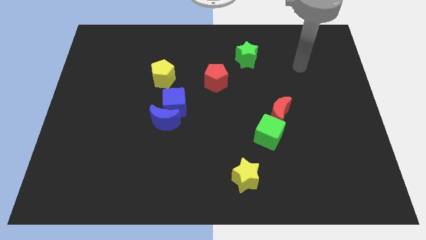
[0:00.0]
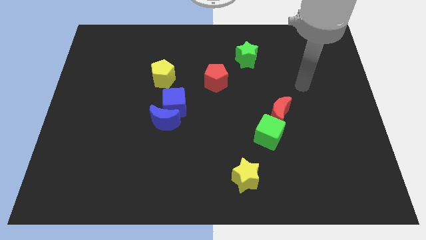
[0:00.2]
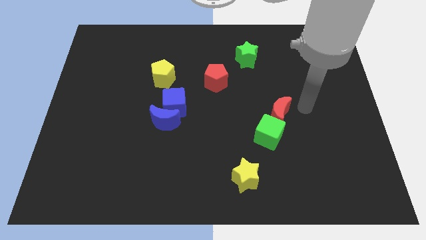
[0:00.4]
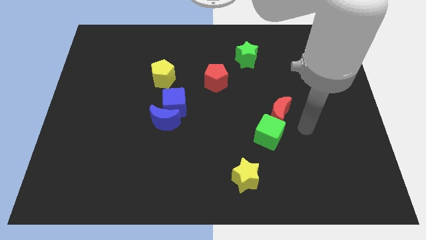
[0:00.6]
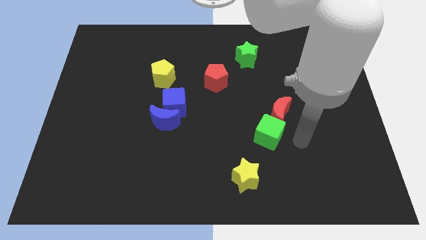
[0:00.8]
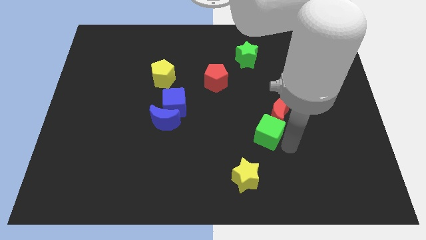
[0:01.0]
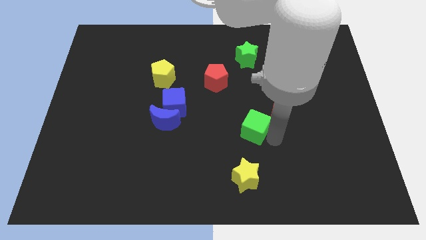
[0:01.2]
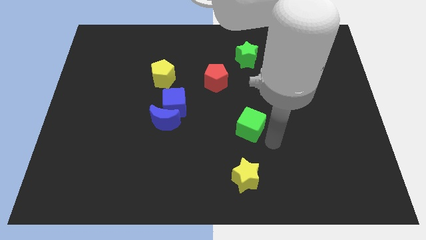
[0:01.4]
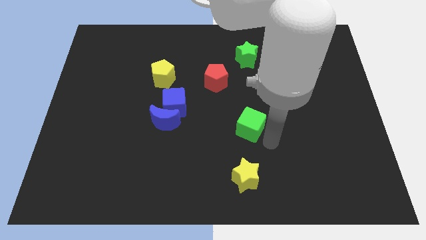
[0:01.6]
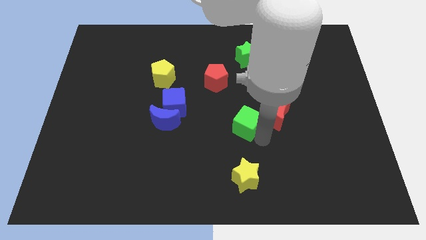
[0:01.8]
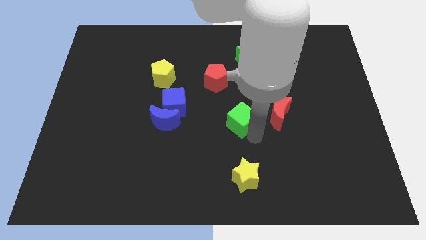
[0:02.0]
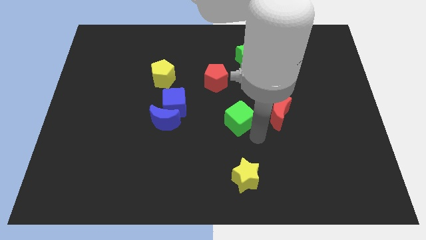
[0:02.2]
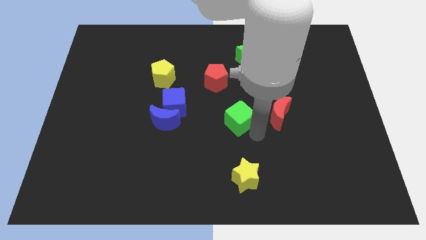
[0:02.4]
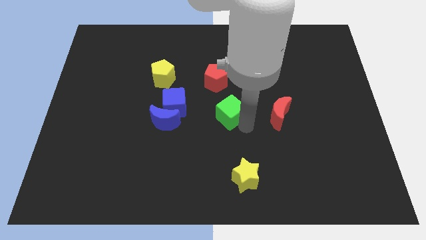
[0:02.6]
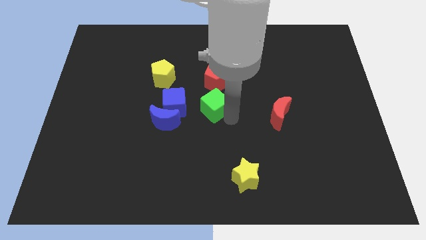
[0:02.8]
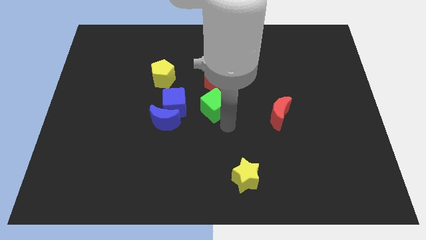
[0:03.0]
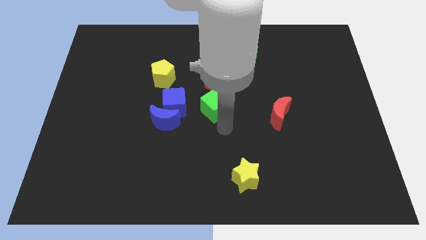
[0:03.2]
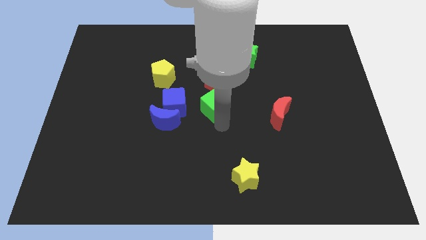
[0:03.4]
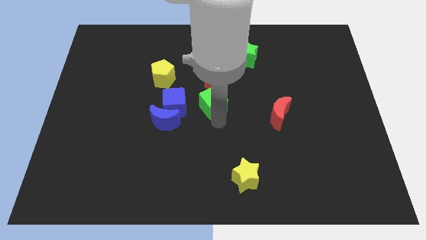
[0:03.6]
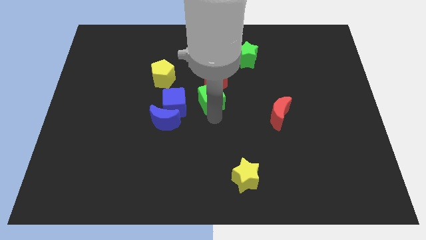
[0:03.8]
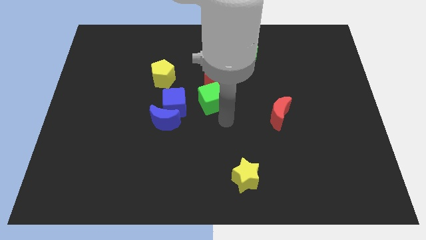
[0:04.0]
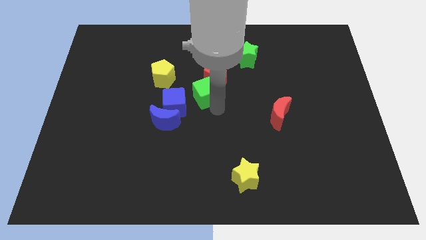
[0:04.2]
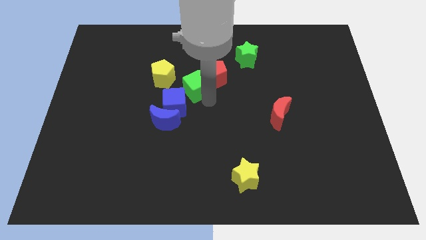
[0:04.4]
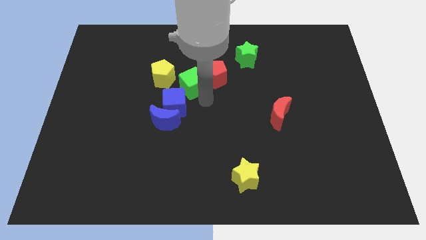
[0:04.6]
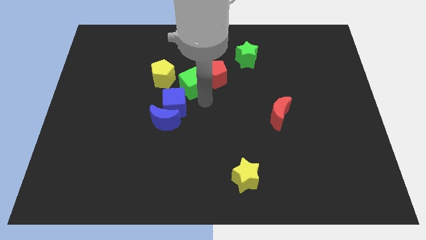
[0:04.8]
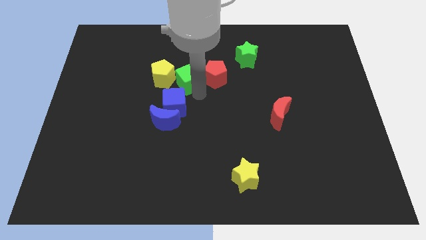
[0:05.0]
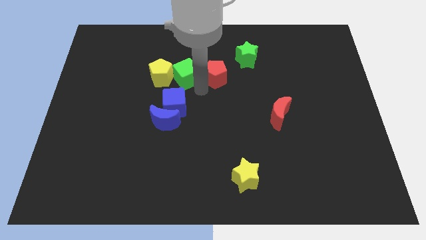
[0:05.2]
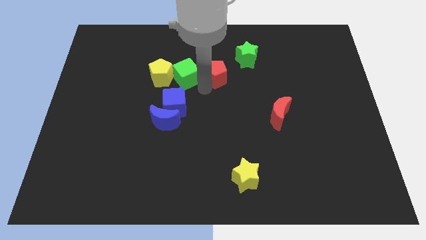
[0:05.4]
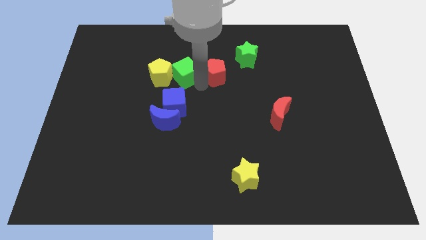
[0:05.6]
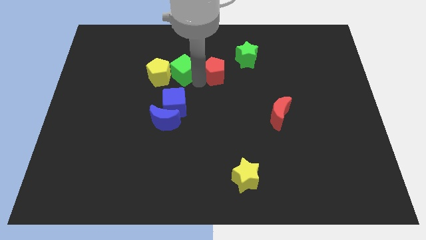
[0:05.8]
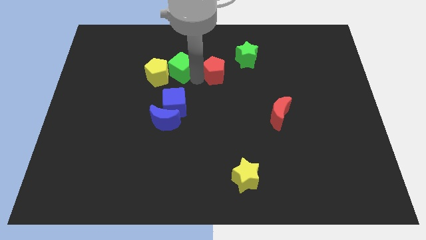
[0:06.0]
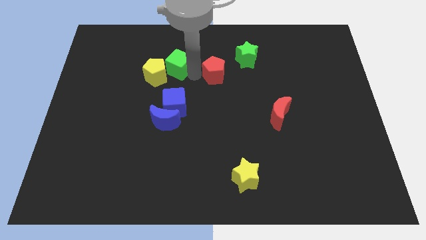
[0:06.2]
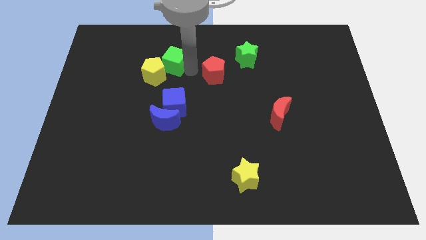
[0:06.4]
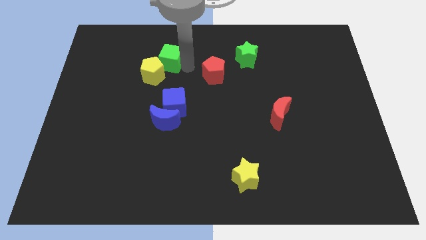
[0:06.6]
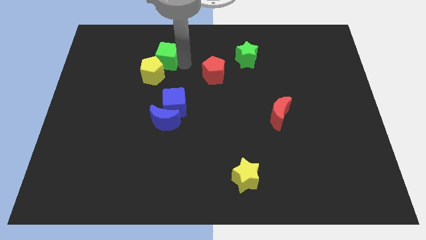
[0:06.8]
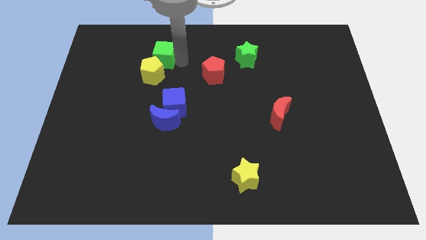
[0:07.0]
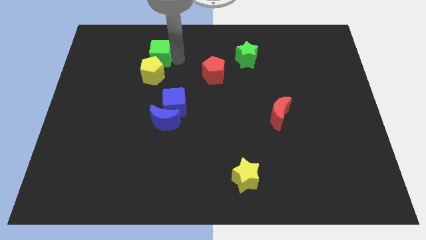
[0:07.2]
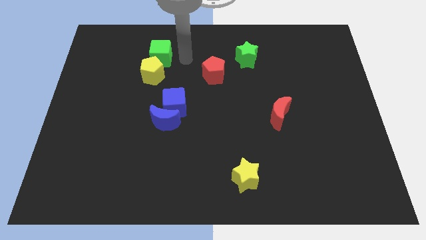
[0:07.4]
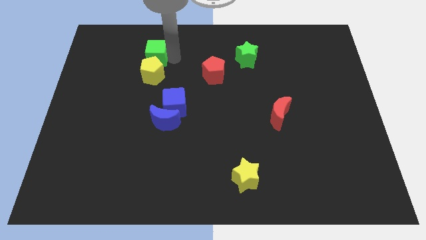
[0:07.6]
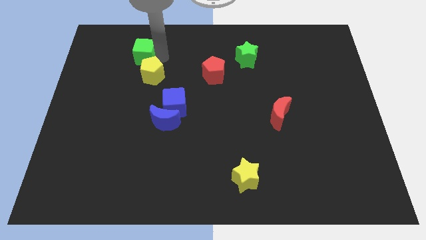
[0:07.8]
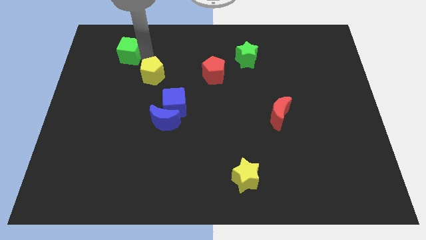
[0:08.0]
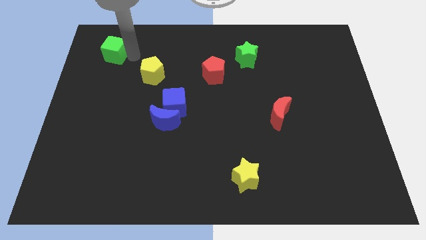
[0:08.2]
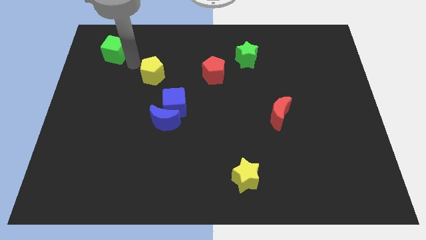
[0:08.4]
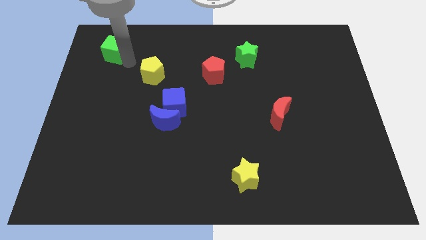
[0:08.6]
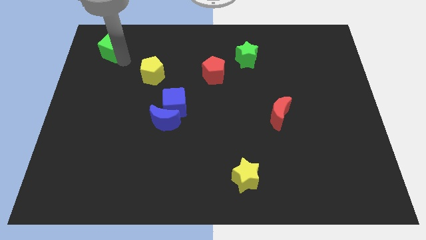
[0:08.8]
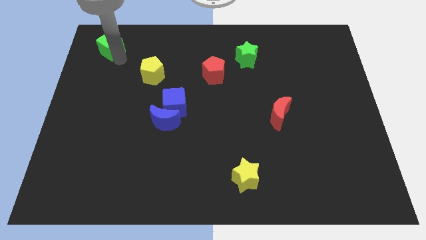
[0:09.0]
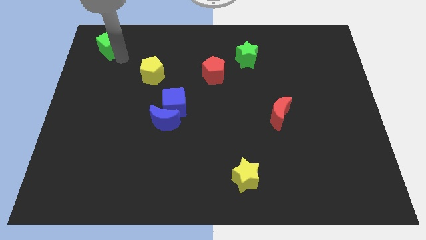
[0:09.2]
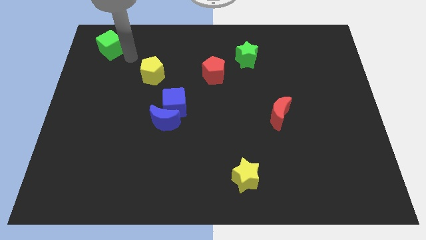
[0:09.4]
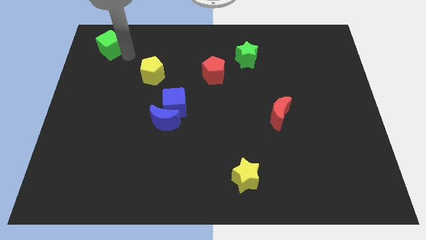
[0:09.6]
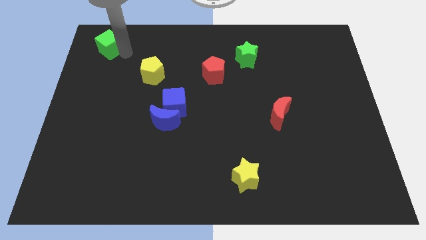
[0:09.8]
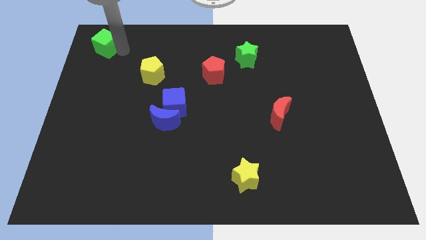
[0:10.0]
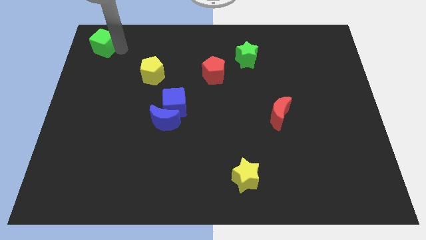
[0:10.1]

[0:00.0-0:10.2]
move the green cube to the top left corner
